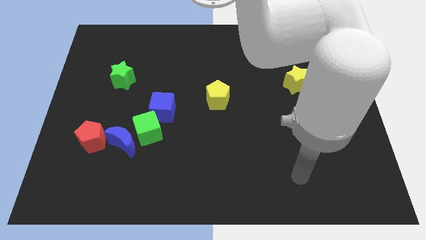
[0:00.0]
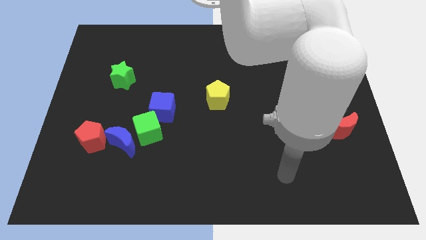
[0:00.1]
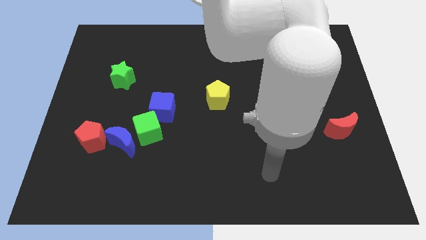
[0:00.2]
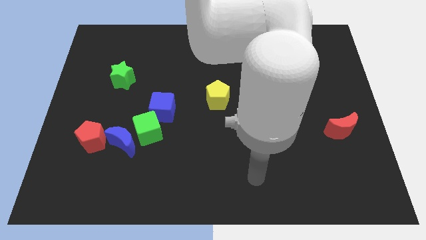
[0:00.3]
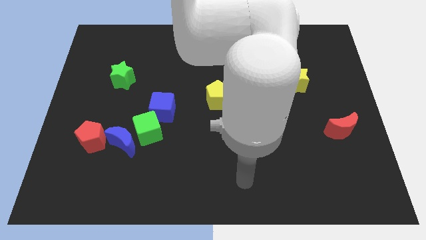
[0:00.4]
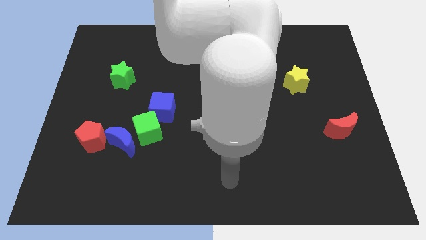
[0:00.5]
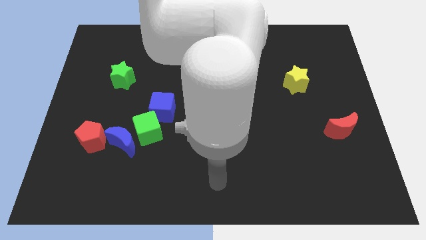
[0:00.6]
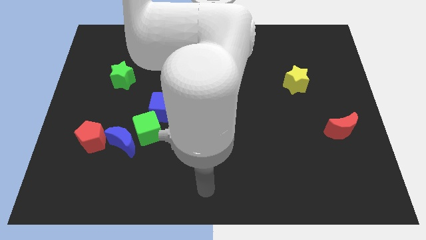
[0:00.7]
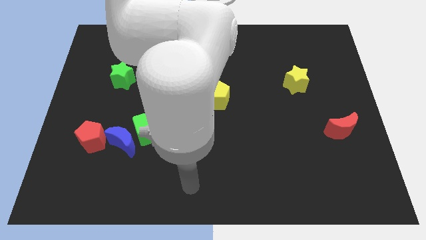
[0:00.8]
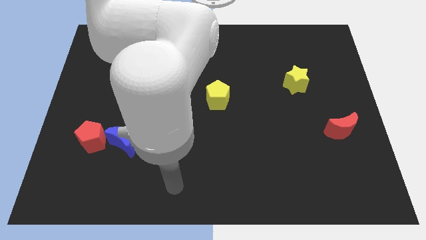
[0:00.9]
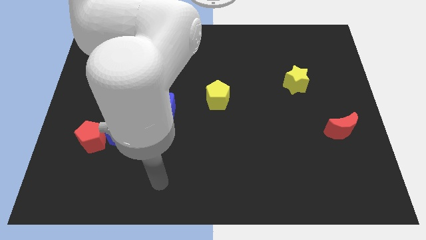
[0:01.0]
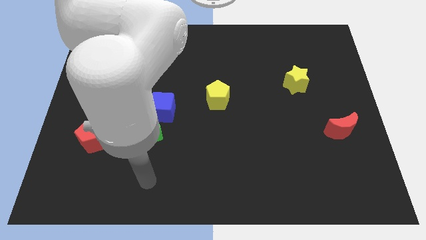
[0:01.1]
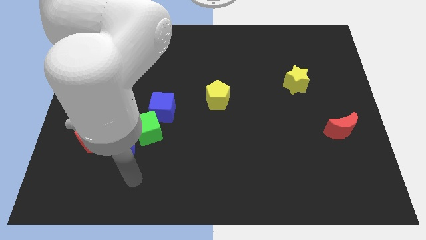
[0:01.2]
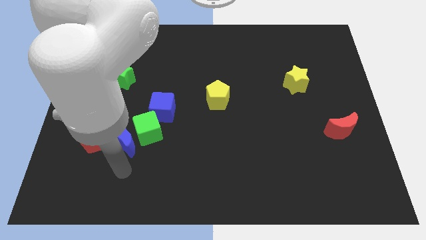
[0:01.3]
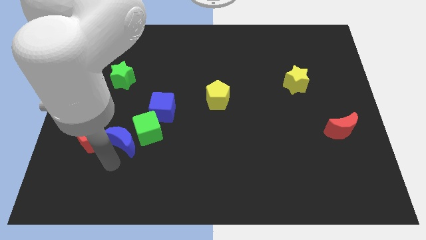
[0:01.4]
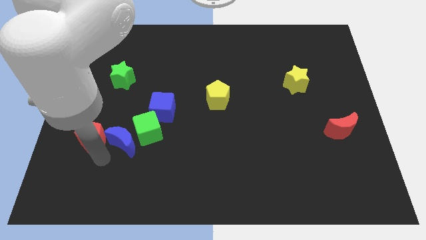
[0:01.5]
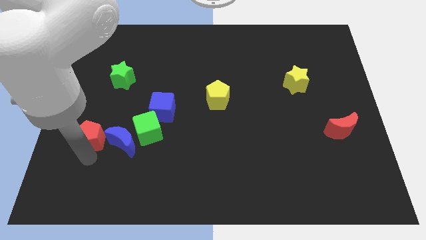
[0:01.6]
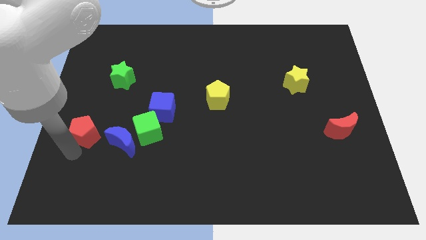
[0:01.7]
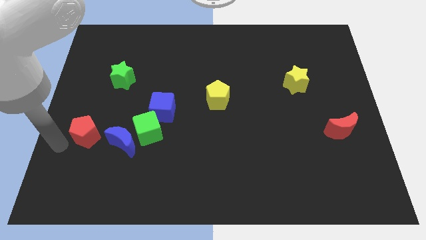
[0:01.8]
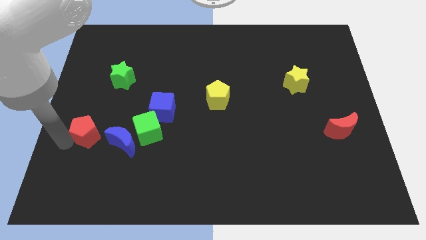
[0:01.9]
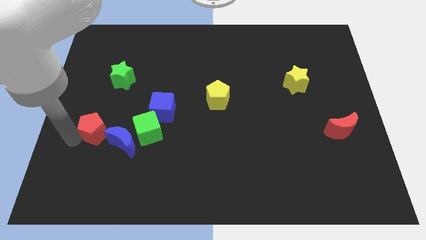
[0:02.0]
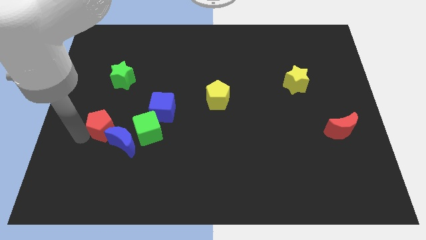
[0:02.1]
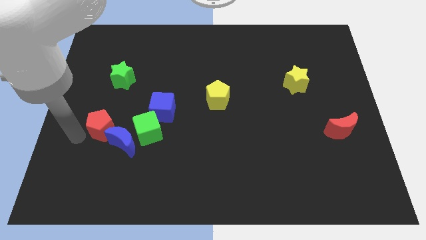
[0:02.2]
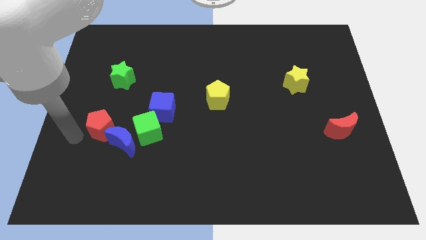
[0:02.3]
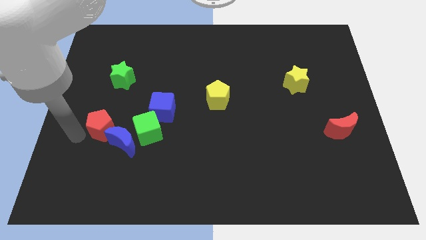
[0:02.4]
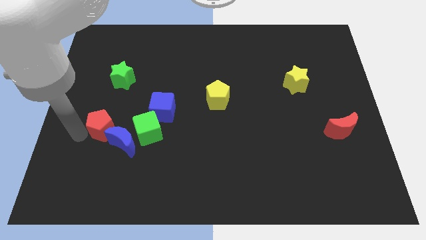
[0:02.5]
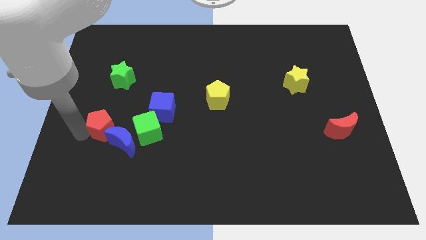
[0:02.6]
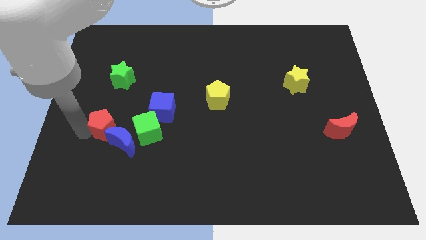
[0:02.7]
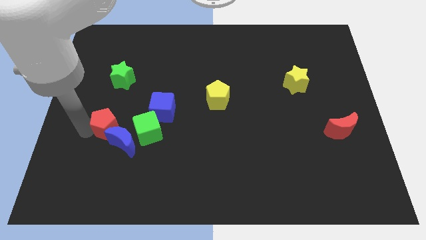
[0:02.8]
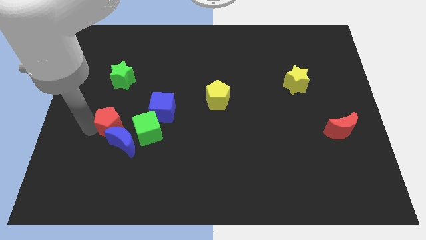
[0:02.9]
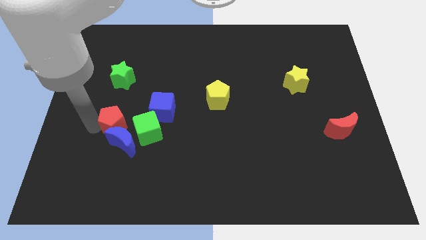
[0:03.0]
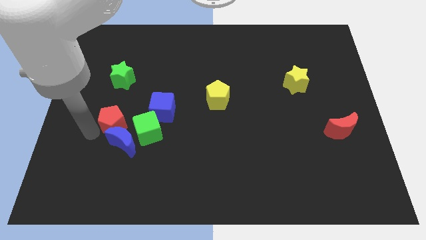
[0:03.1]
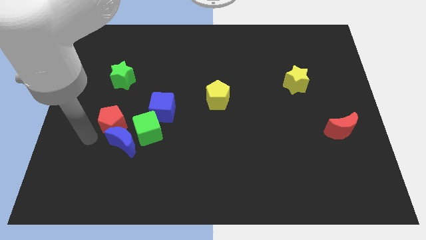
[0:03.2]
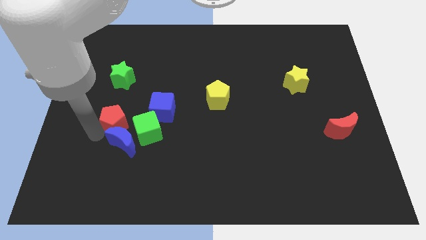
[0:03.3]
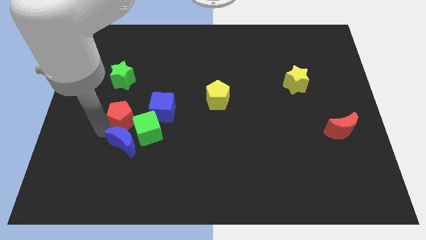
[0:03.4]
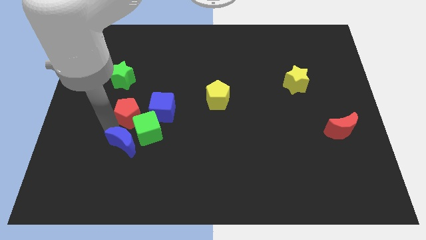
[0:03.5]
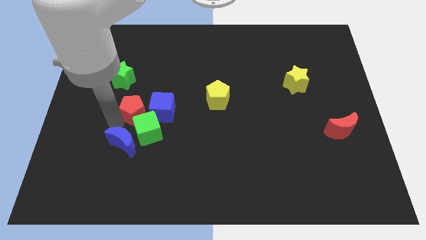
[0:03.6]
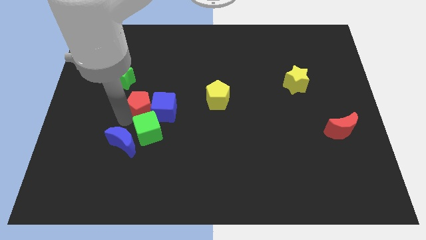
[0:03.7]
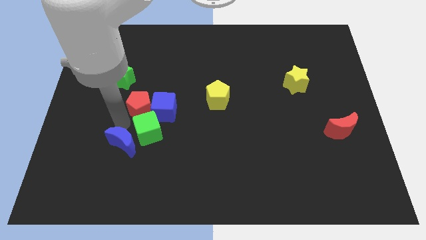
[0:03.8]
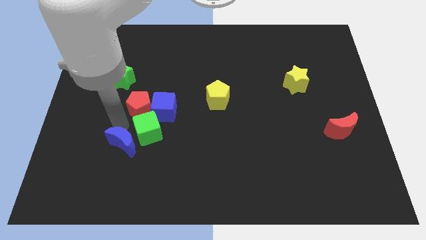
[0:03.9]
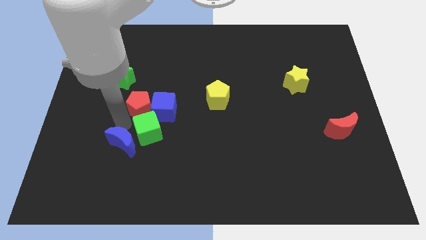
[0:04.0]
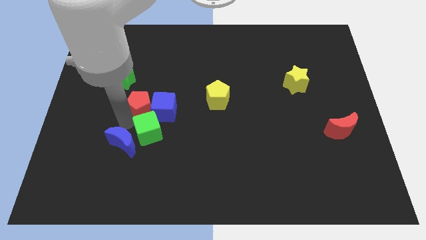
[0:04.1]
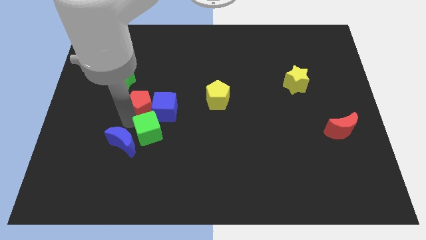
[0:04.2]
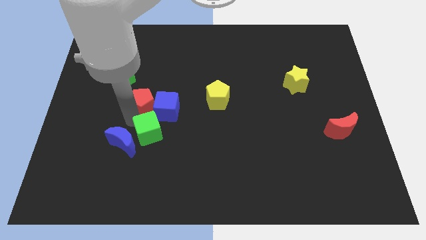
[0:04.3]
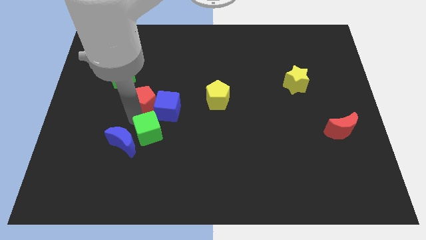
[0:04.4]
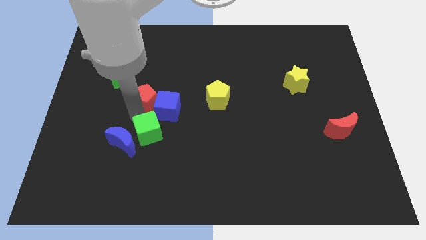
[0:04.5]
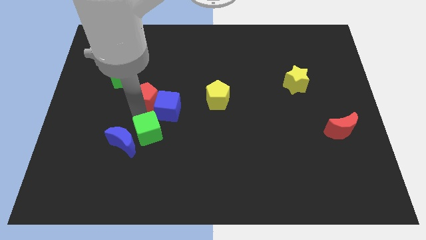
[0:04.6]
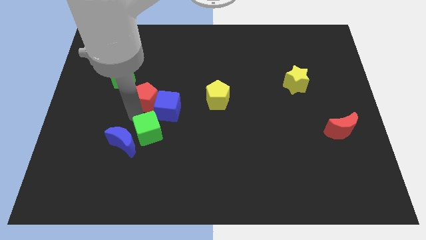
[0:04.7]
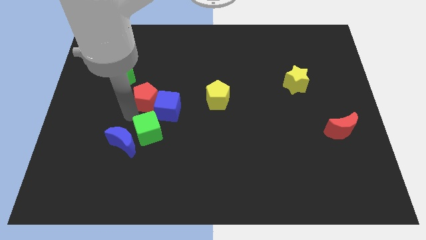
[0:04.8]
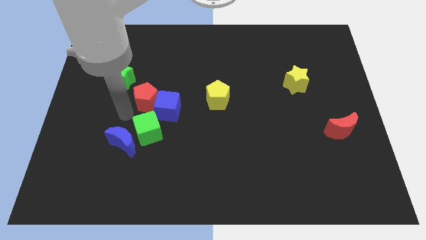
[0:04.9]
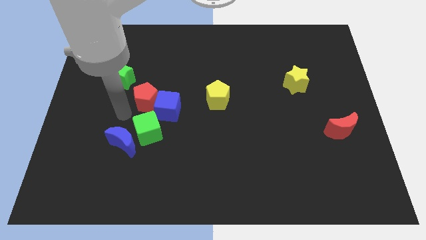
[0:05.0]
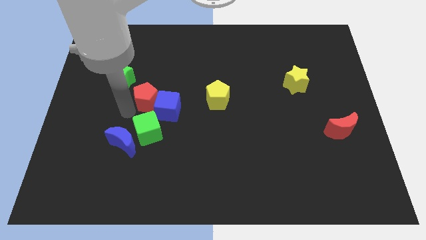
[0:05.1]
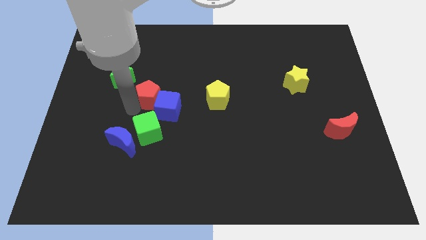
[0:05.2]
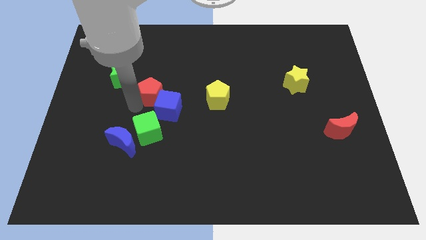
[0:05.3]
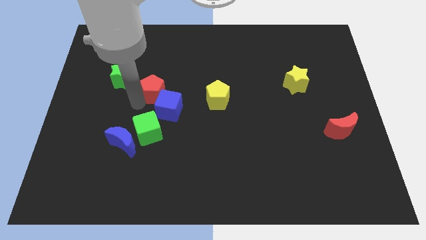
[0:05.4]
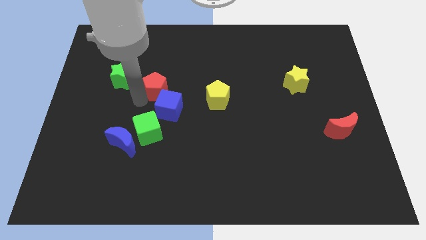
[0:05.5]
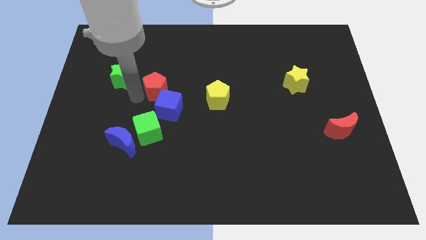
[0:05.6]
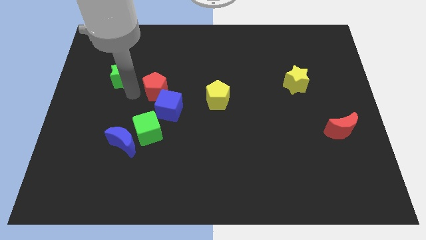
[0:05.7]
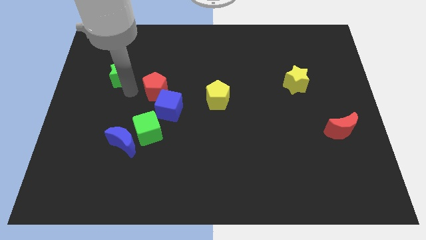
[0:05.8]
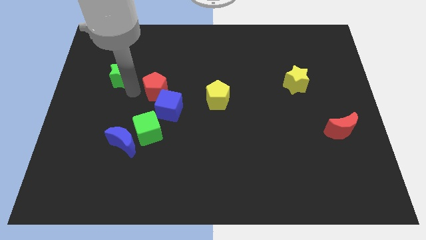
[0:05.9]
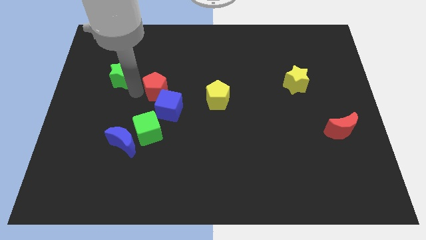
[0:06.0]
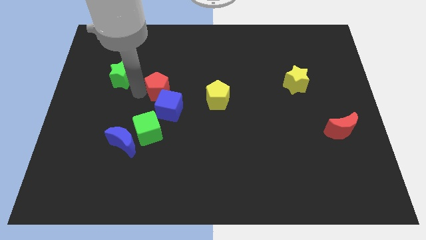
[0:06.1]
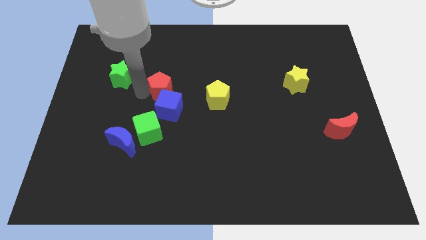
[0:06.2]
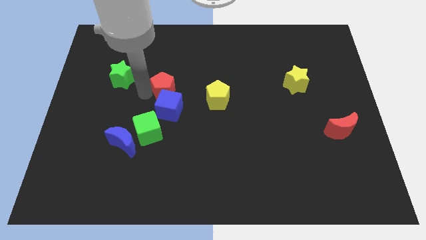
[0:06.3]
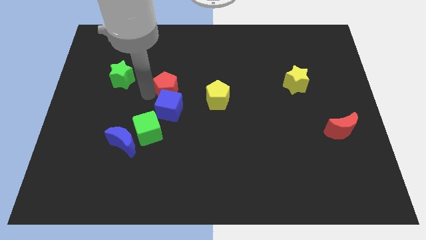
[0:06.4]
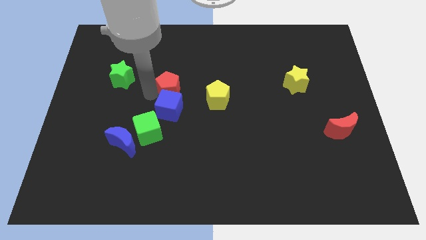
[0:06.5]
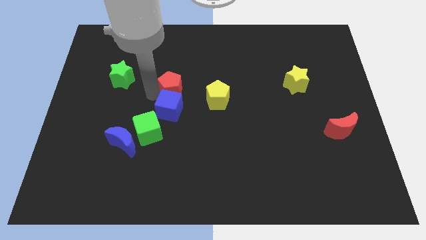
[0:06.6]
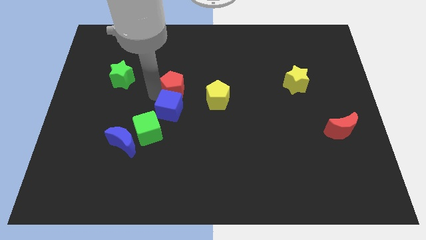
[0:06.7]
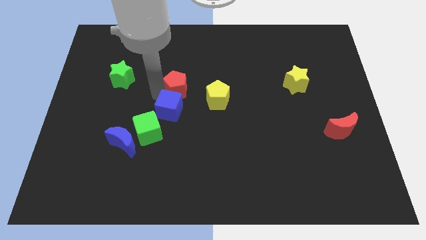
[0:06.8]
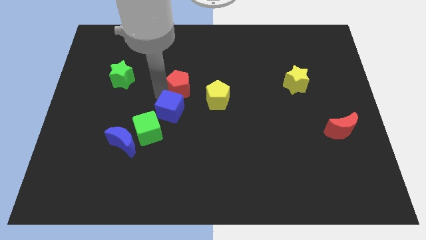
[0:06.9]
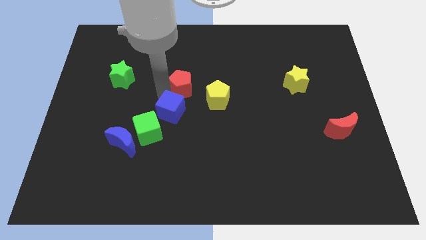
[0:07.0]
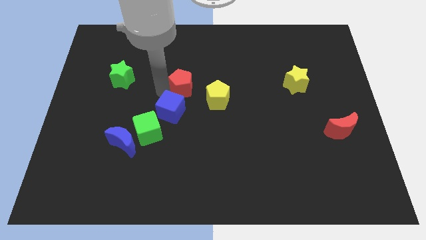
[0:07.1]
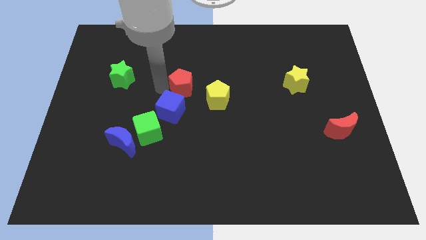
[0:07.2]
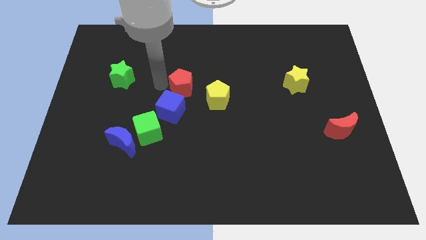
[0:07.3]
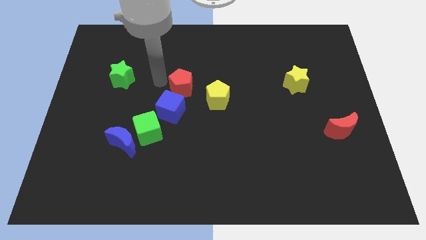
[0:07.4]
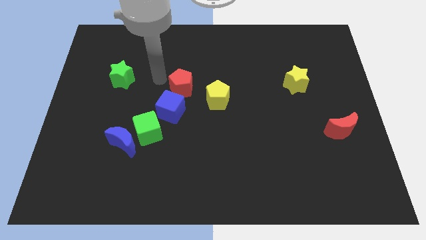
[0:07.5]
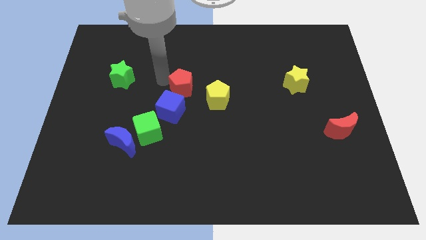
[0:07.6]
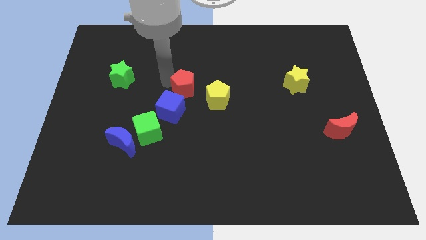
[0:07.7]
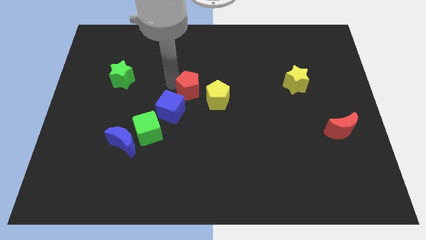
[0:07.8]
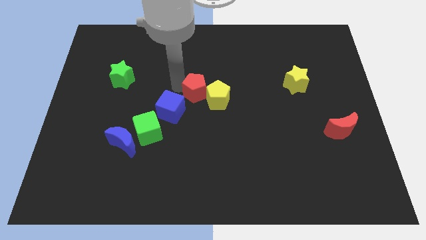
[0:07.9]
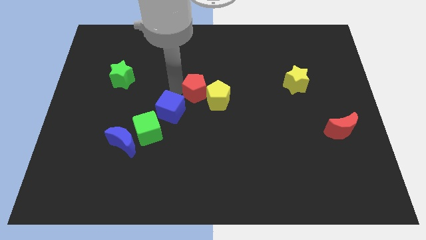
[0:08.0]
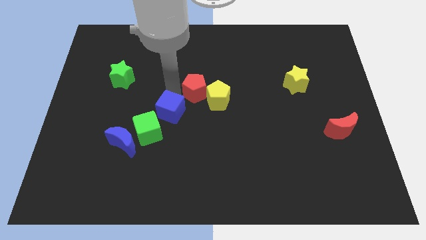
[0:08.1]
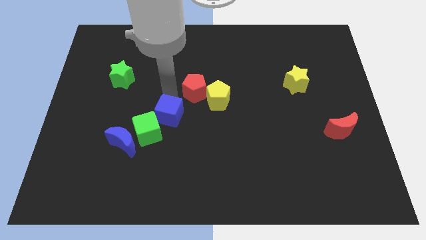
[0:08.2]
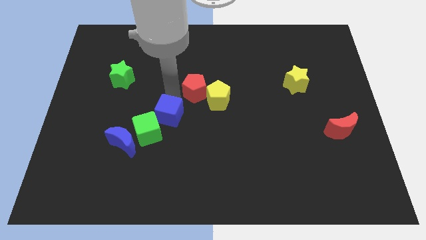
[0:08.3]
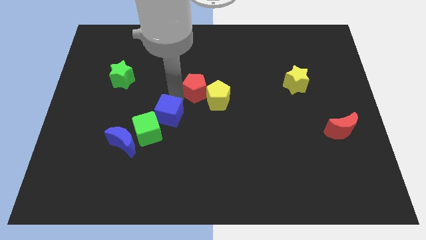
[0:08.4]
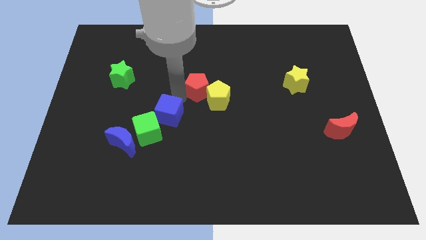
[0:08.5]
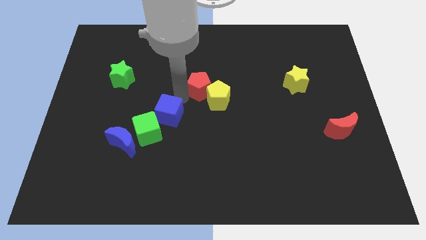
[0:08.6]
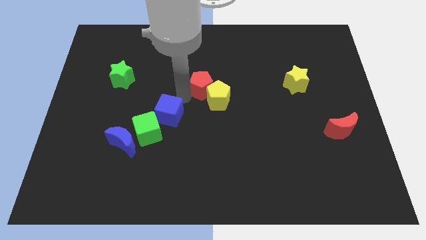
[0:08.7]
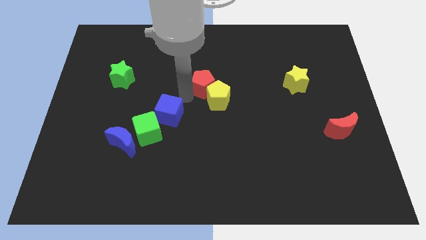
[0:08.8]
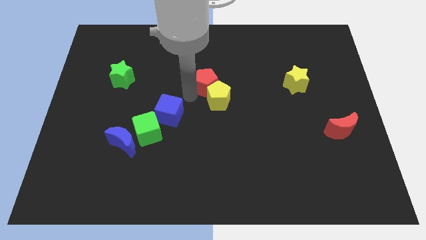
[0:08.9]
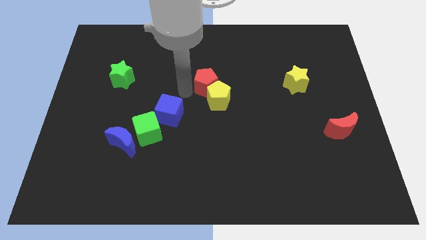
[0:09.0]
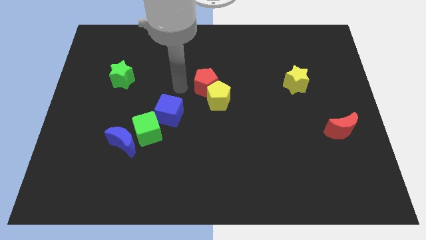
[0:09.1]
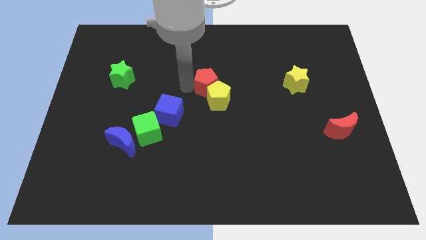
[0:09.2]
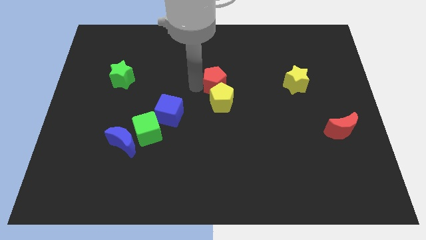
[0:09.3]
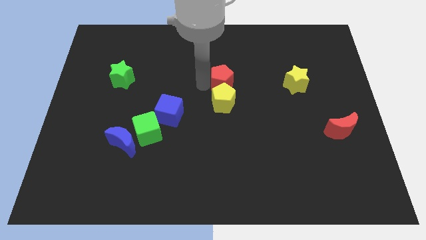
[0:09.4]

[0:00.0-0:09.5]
move the red pentagon to the top right of the yellow pentagon
